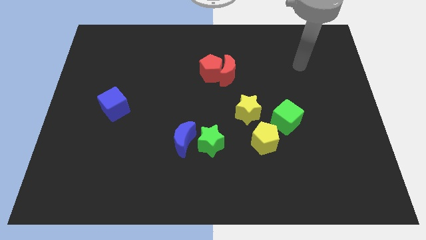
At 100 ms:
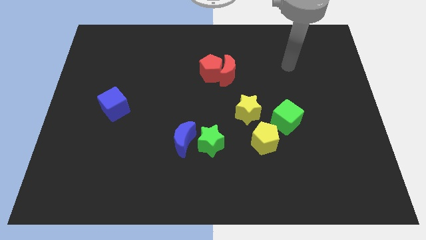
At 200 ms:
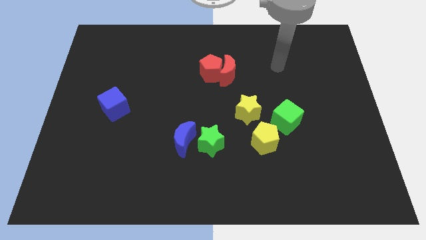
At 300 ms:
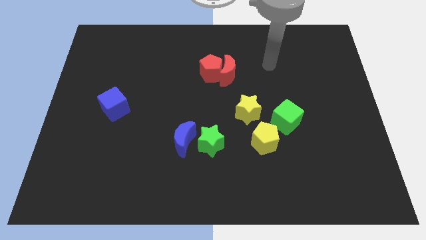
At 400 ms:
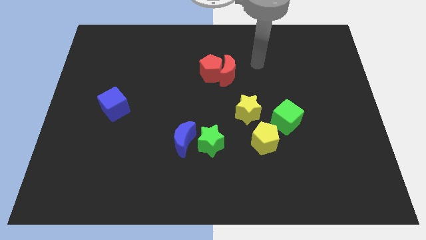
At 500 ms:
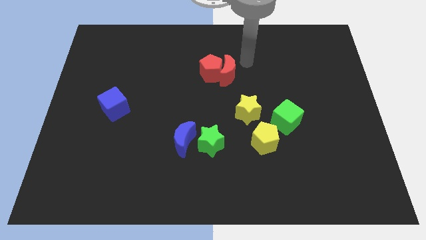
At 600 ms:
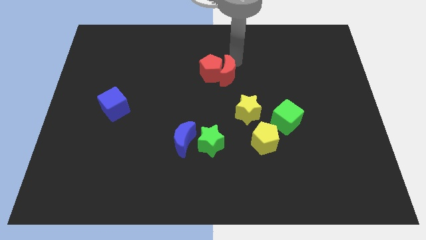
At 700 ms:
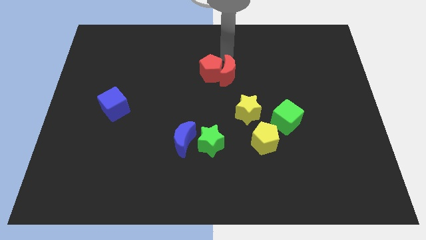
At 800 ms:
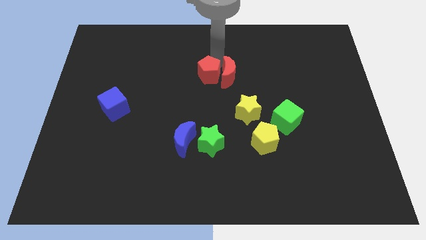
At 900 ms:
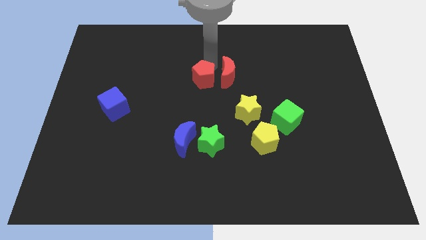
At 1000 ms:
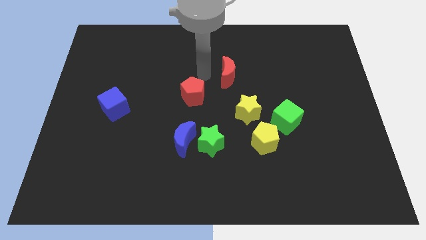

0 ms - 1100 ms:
move the red moon away from the red pentagon

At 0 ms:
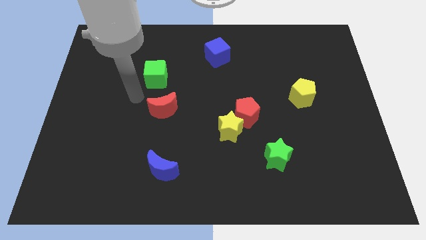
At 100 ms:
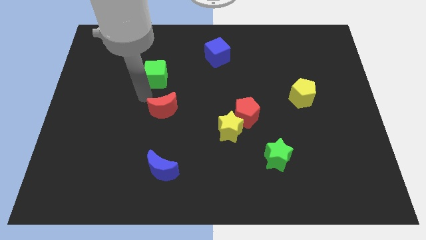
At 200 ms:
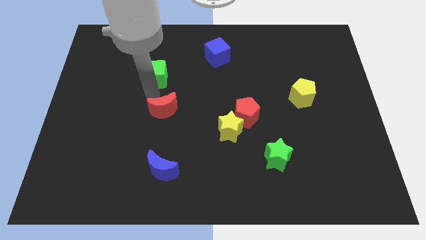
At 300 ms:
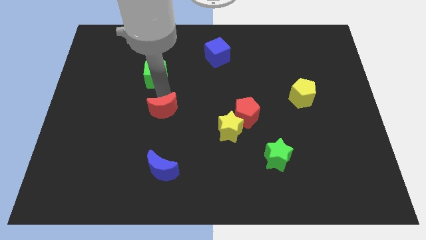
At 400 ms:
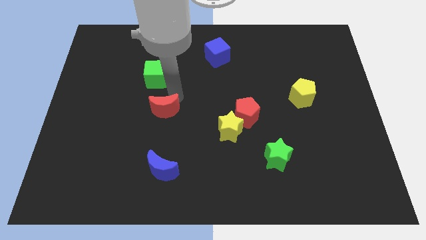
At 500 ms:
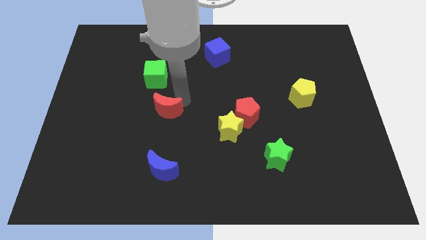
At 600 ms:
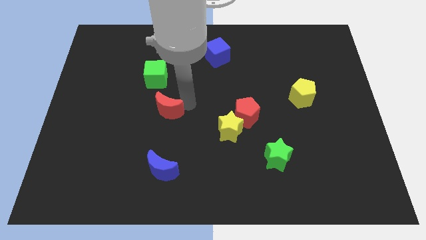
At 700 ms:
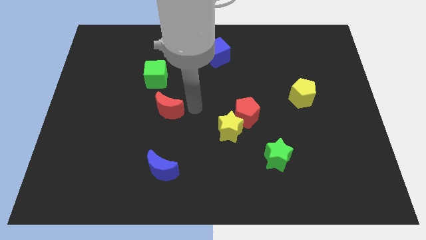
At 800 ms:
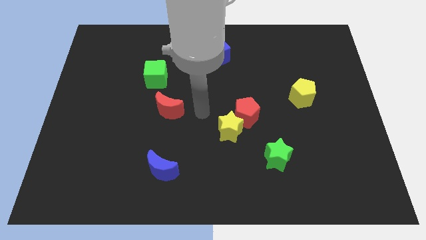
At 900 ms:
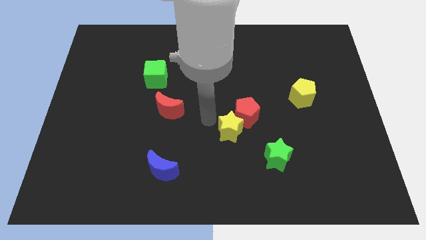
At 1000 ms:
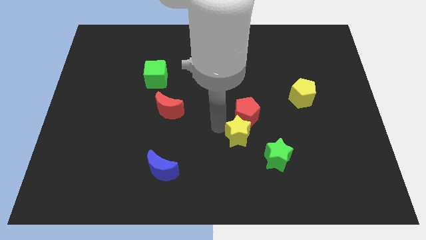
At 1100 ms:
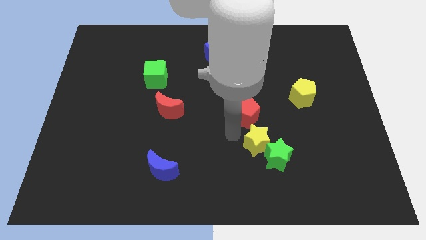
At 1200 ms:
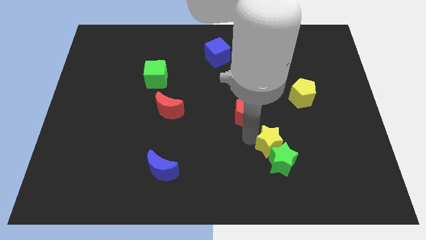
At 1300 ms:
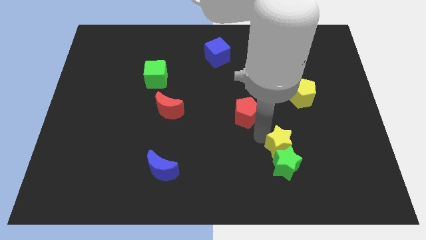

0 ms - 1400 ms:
separate the red pentagon from the yellow star

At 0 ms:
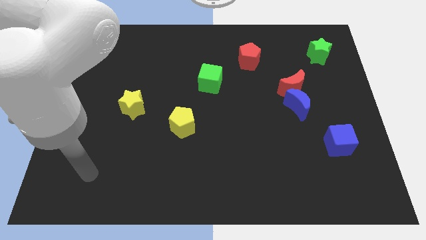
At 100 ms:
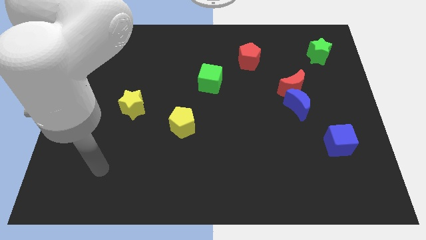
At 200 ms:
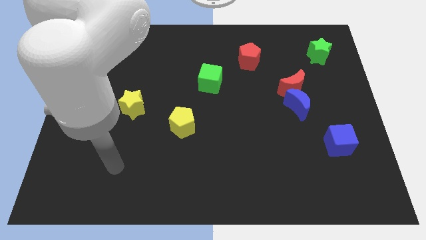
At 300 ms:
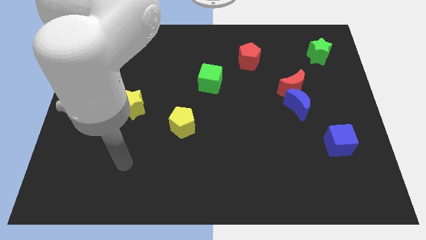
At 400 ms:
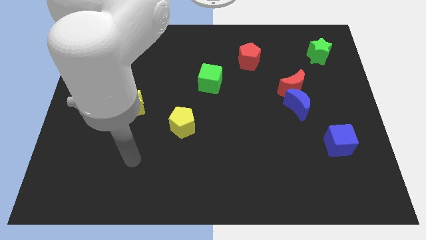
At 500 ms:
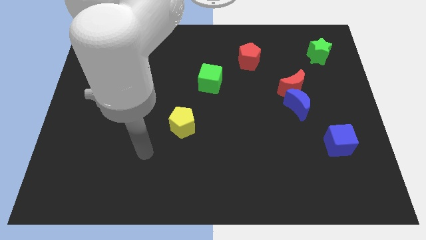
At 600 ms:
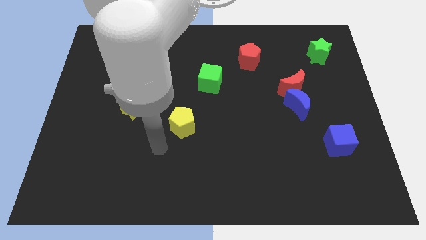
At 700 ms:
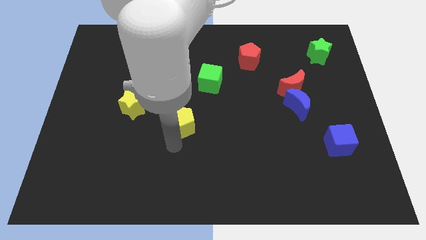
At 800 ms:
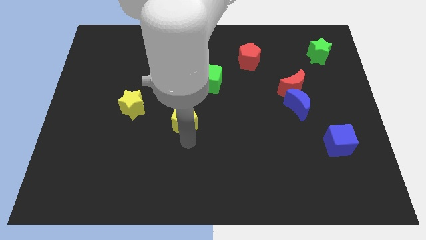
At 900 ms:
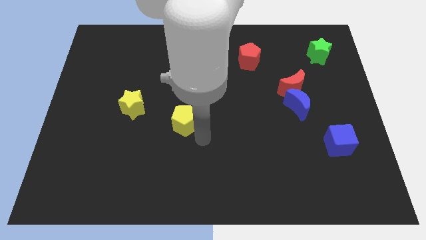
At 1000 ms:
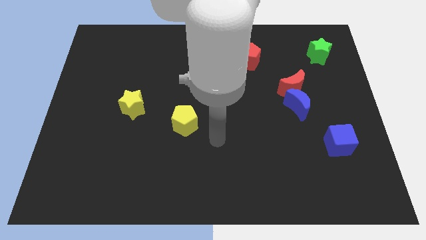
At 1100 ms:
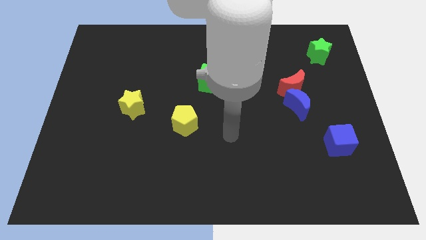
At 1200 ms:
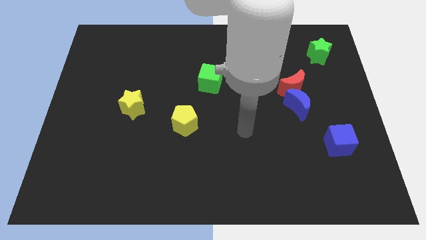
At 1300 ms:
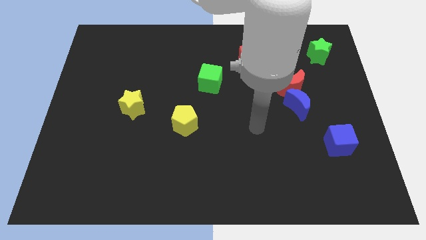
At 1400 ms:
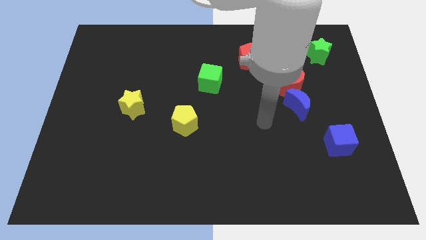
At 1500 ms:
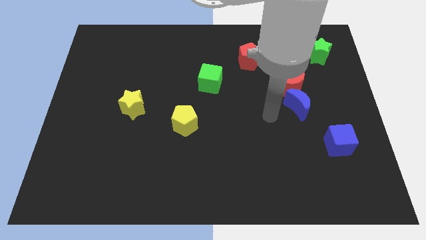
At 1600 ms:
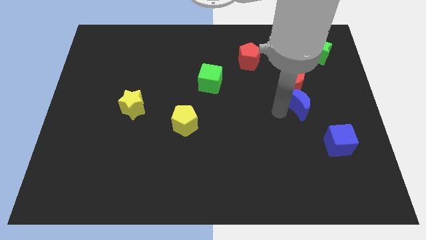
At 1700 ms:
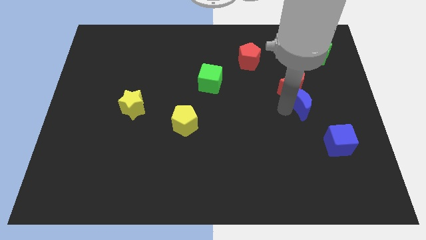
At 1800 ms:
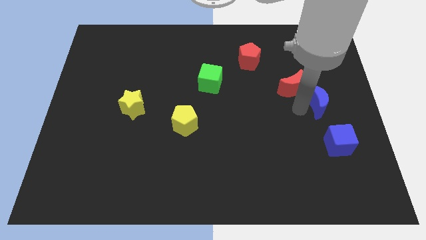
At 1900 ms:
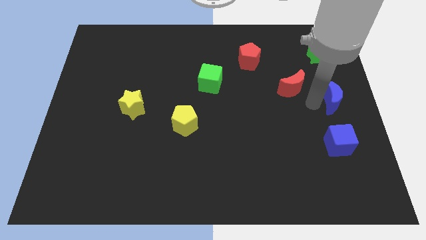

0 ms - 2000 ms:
move the red moon away from the blue moon

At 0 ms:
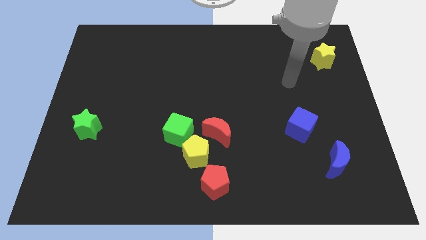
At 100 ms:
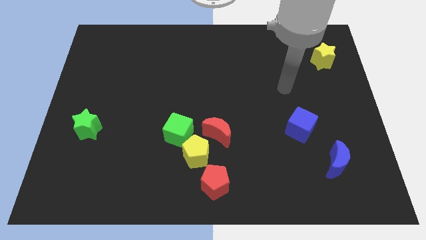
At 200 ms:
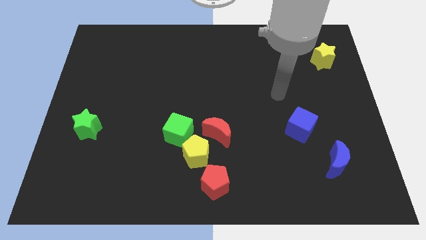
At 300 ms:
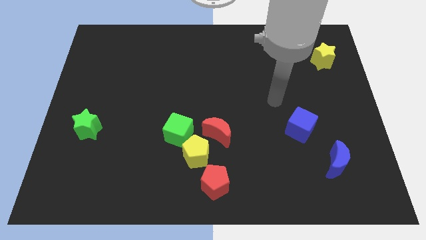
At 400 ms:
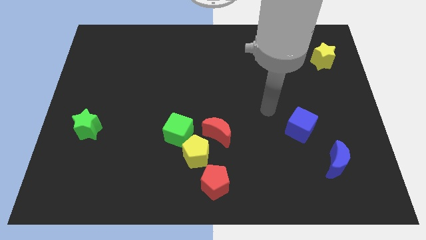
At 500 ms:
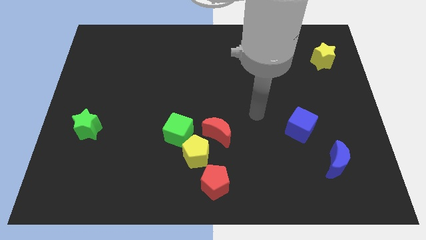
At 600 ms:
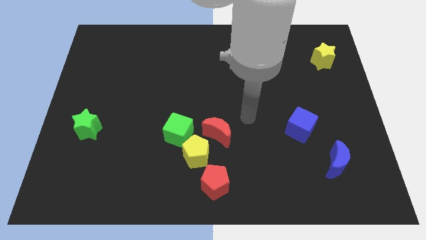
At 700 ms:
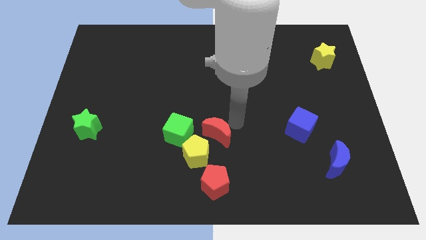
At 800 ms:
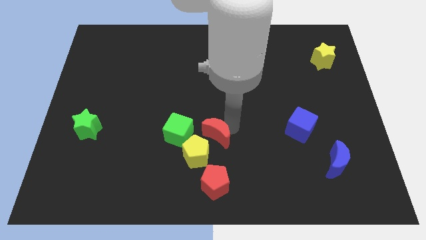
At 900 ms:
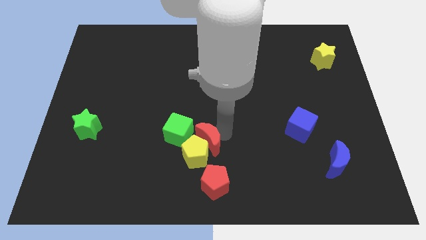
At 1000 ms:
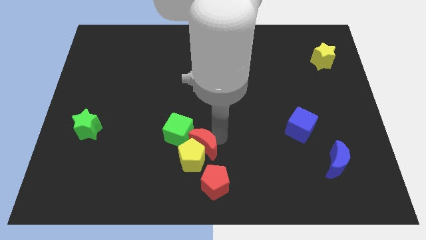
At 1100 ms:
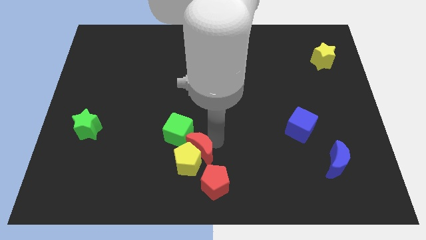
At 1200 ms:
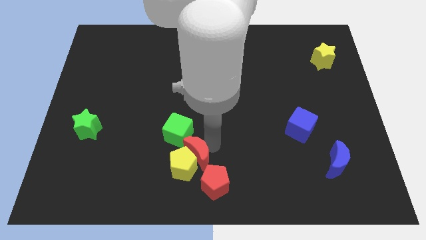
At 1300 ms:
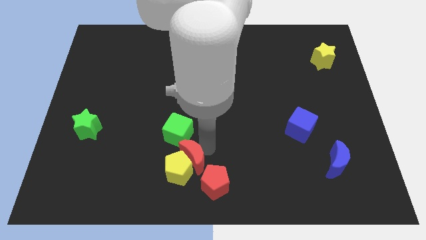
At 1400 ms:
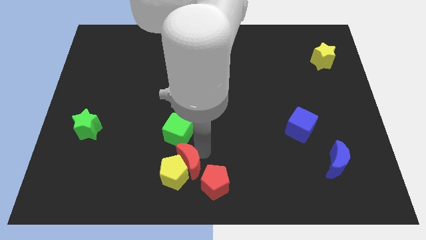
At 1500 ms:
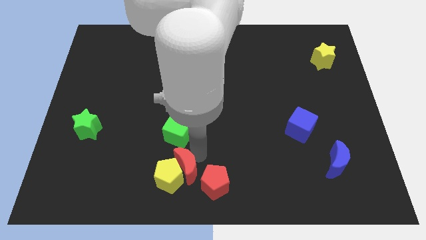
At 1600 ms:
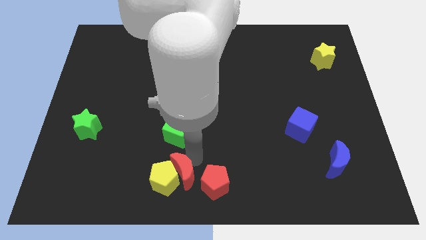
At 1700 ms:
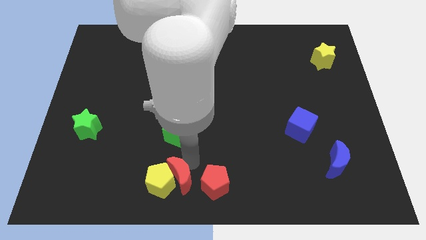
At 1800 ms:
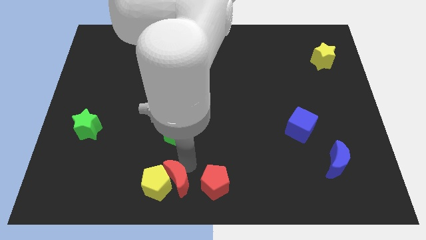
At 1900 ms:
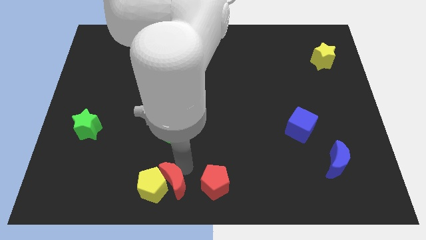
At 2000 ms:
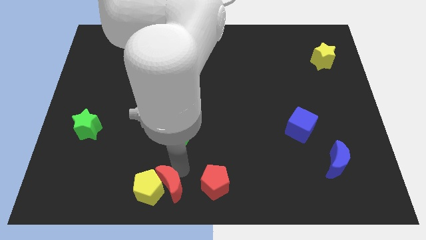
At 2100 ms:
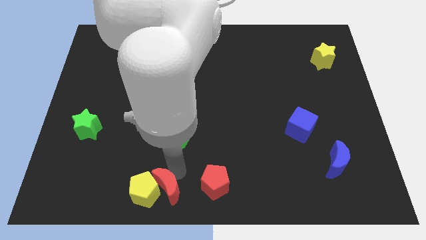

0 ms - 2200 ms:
separate the yellow pentagon from the clump

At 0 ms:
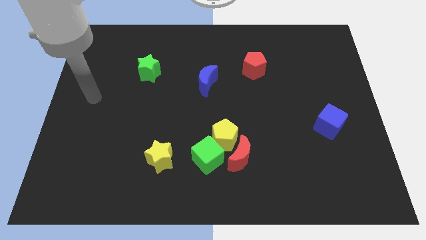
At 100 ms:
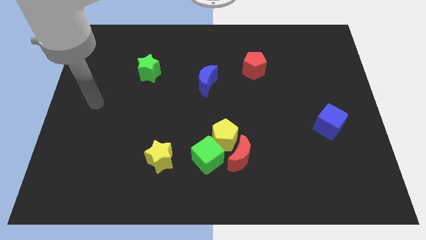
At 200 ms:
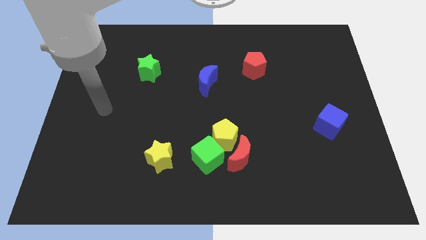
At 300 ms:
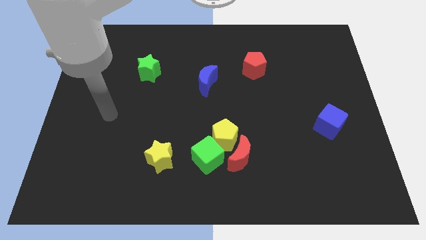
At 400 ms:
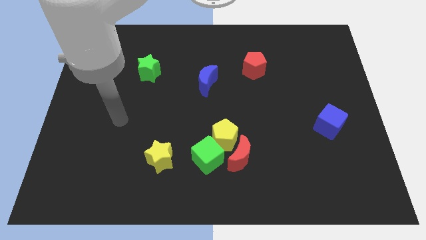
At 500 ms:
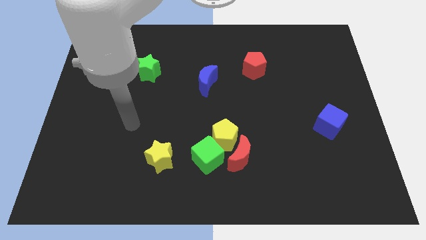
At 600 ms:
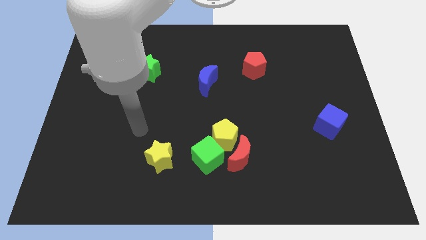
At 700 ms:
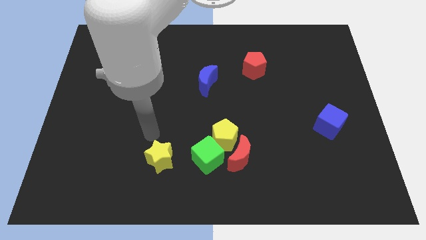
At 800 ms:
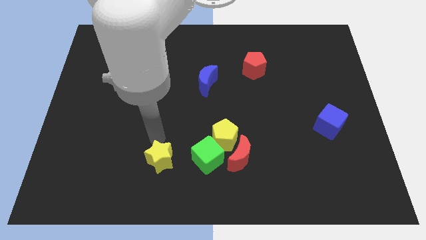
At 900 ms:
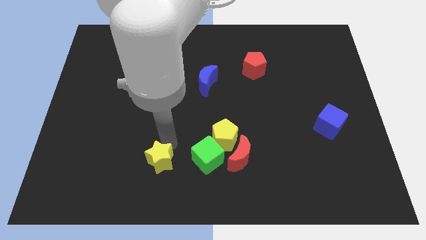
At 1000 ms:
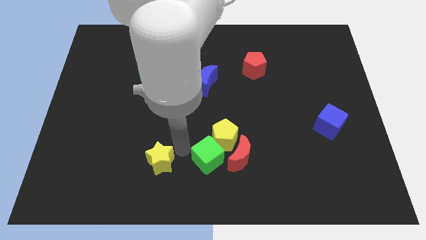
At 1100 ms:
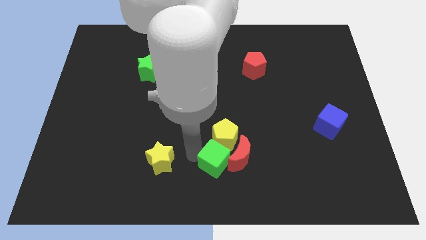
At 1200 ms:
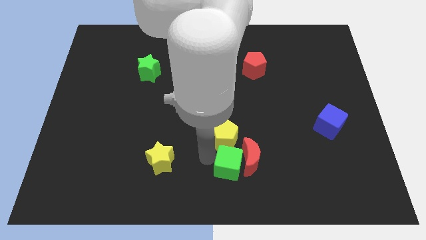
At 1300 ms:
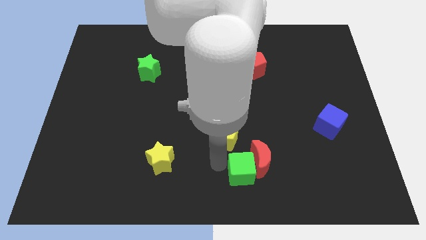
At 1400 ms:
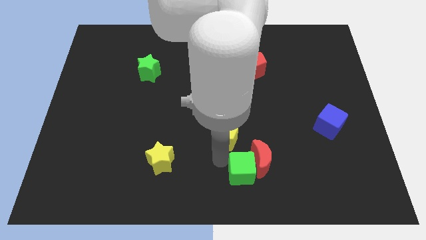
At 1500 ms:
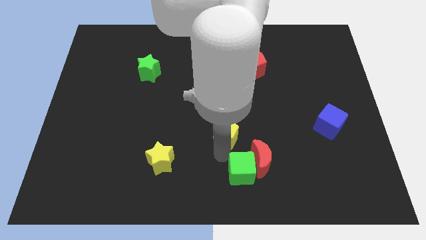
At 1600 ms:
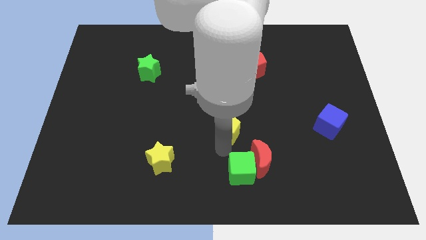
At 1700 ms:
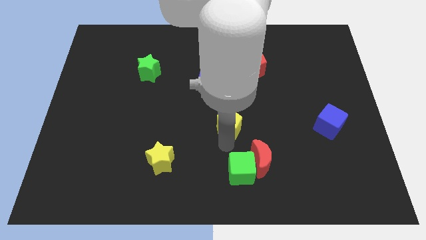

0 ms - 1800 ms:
pull the yellow pentagon apart from the red moon and green cube

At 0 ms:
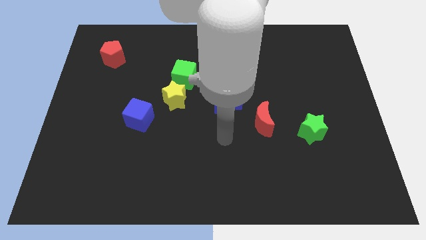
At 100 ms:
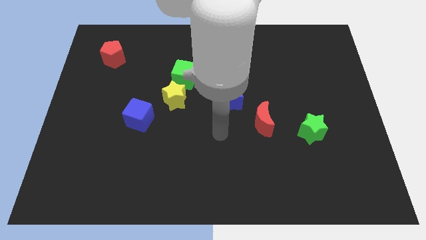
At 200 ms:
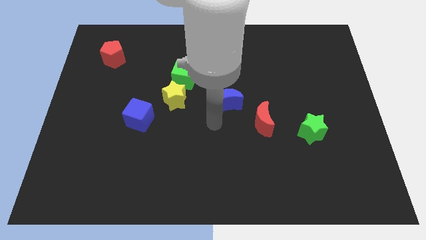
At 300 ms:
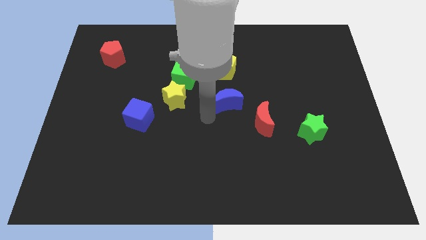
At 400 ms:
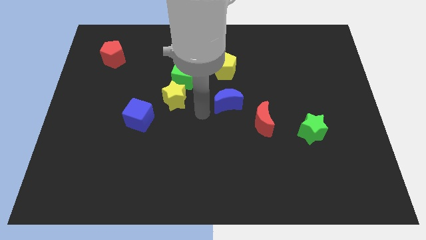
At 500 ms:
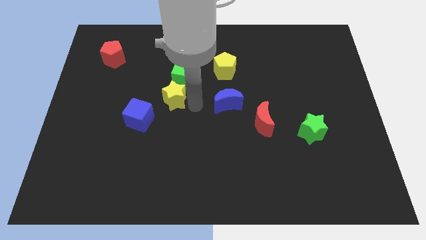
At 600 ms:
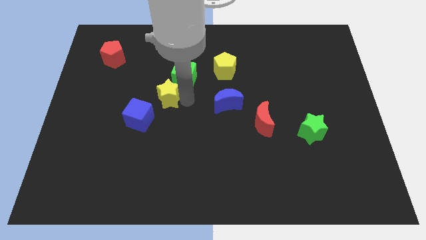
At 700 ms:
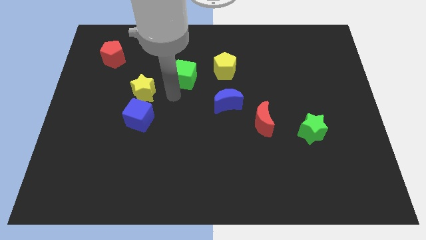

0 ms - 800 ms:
move the green cube away from the yellow star

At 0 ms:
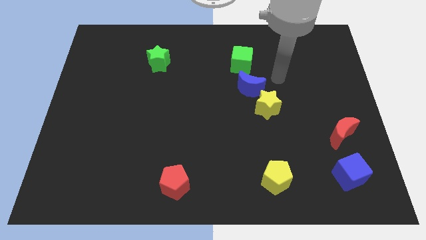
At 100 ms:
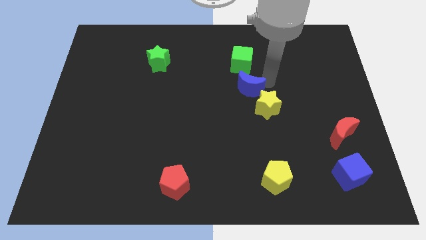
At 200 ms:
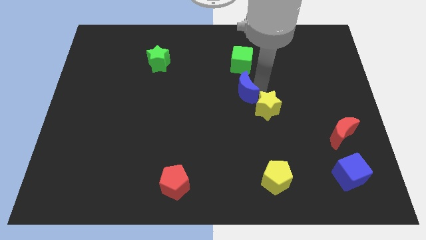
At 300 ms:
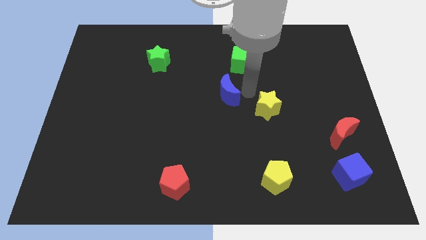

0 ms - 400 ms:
pull the yellow star apart from the blue moon
